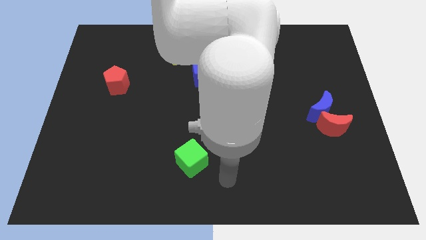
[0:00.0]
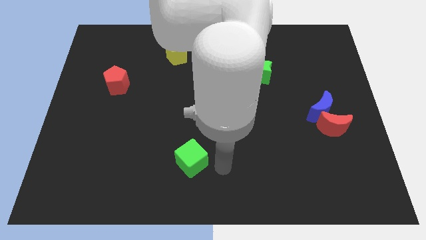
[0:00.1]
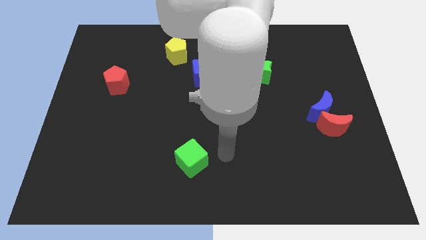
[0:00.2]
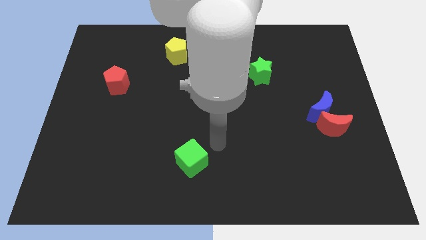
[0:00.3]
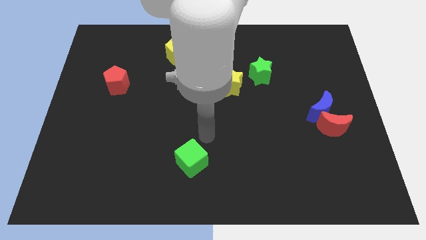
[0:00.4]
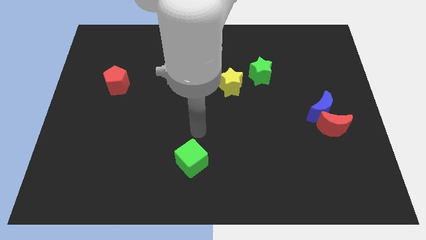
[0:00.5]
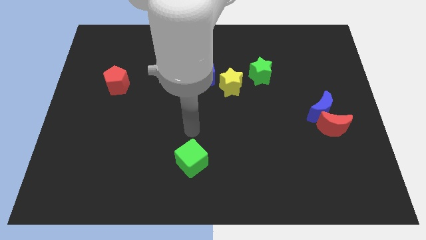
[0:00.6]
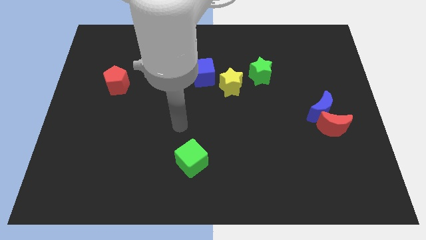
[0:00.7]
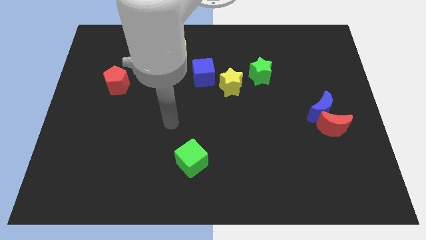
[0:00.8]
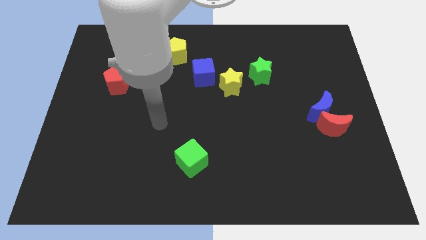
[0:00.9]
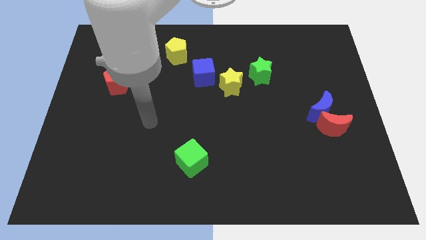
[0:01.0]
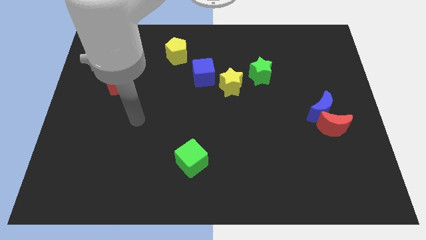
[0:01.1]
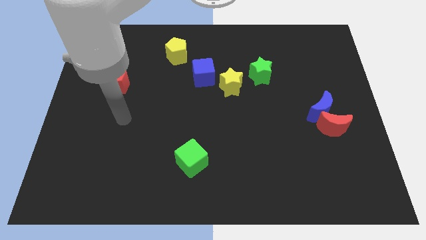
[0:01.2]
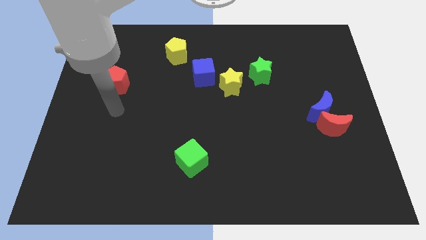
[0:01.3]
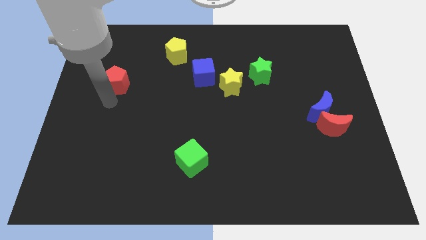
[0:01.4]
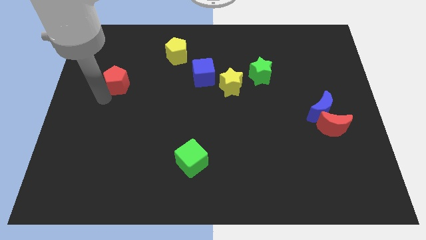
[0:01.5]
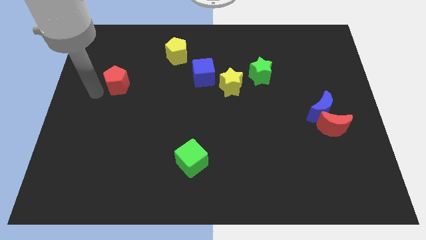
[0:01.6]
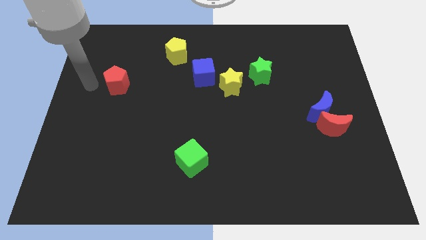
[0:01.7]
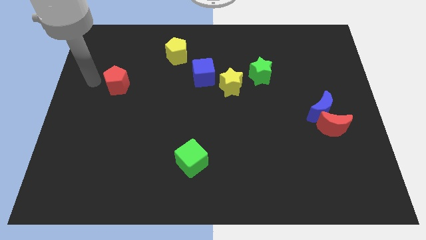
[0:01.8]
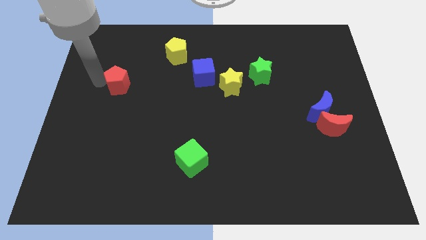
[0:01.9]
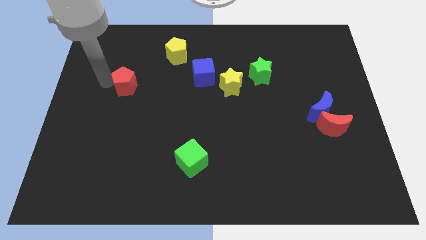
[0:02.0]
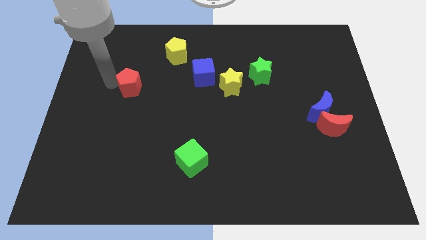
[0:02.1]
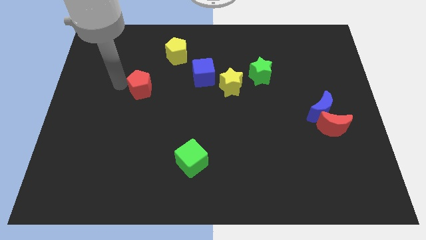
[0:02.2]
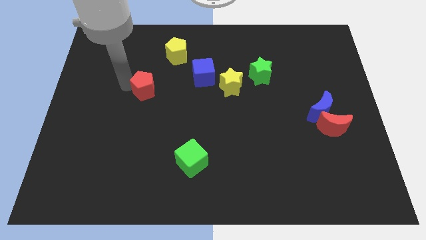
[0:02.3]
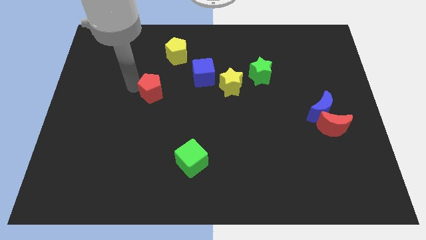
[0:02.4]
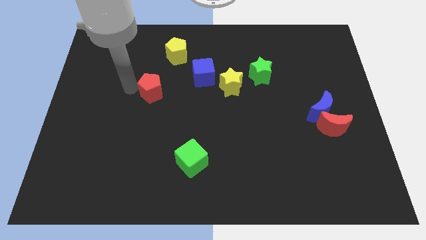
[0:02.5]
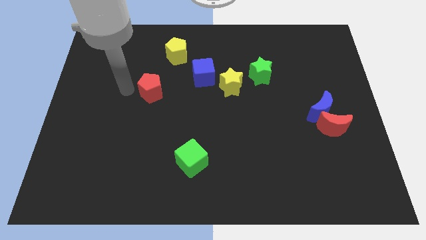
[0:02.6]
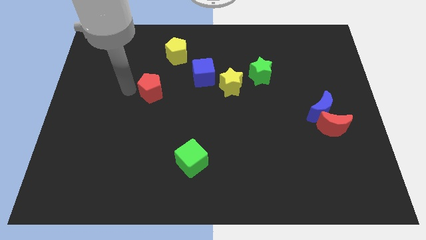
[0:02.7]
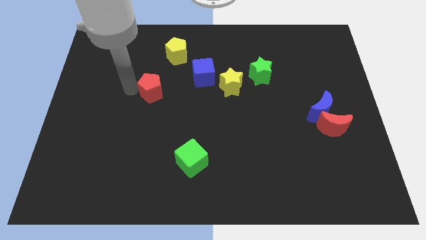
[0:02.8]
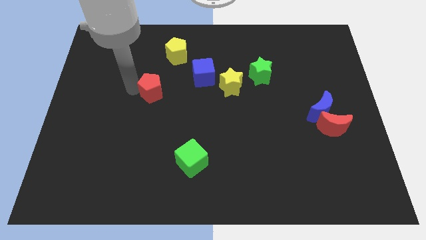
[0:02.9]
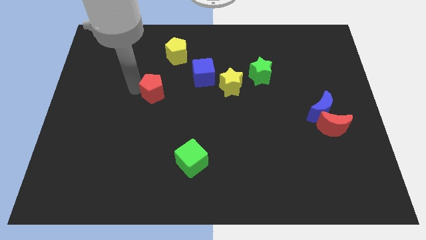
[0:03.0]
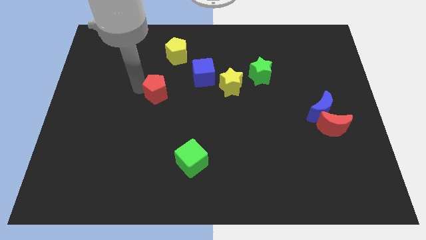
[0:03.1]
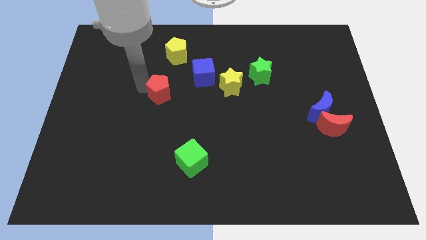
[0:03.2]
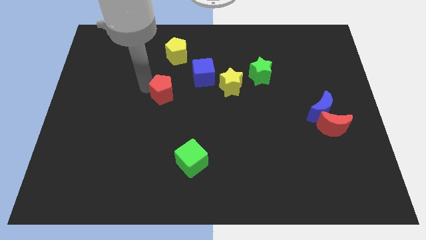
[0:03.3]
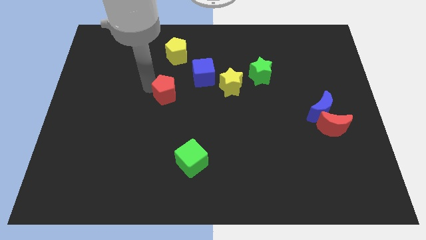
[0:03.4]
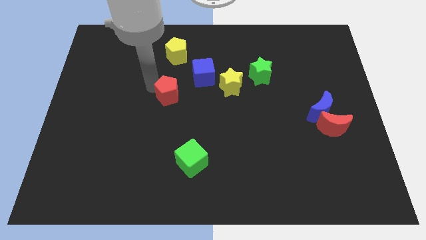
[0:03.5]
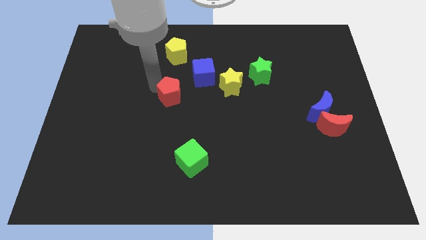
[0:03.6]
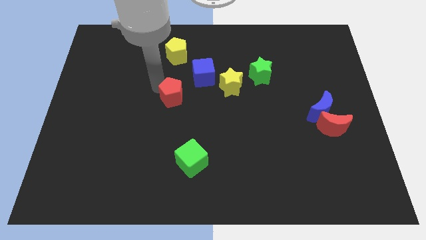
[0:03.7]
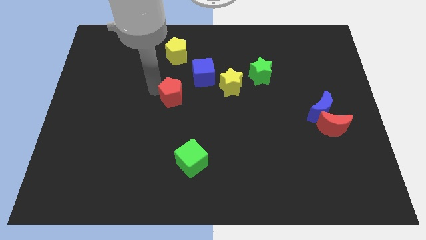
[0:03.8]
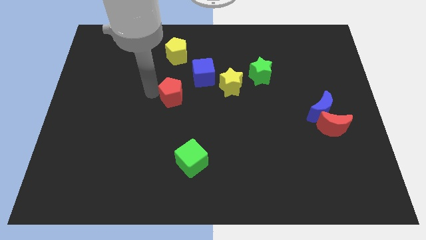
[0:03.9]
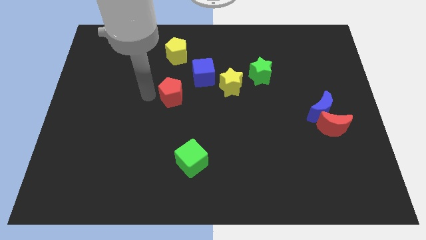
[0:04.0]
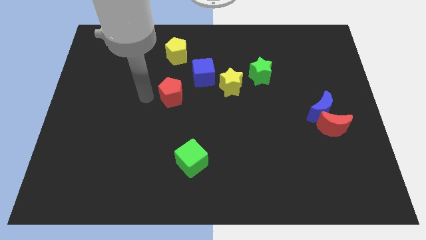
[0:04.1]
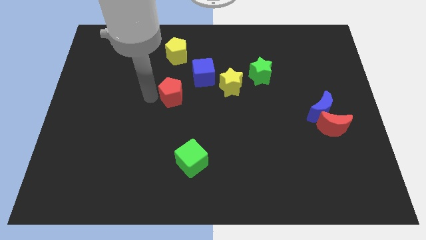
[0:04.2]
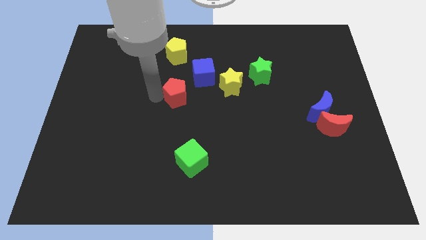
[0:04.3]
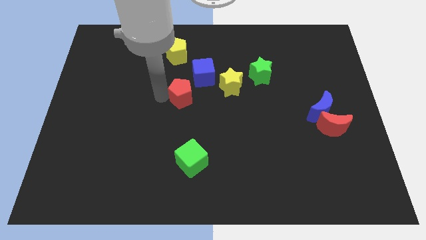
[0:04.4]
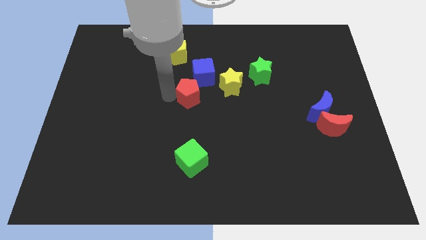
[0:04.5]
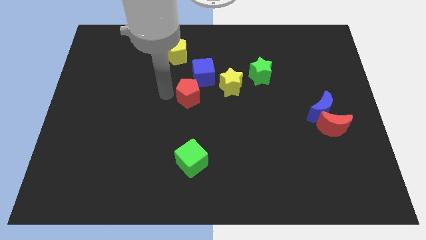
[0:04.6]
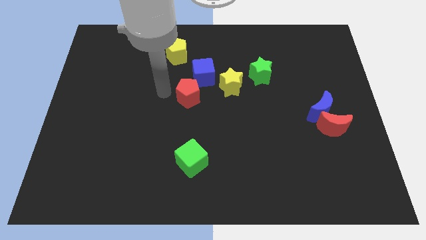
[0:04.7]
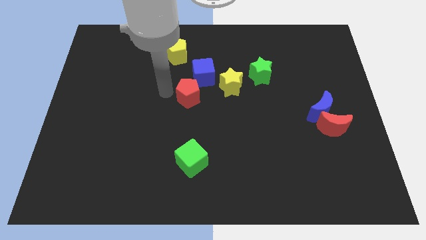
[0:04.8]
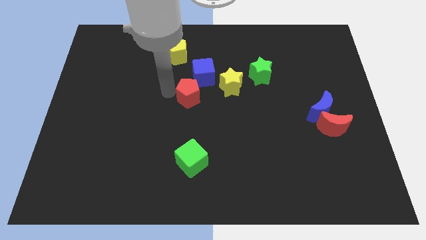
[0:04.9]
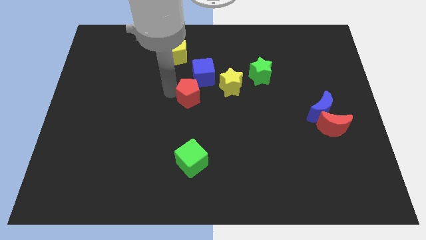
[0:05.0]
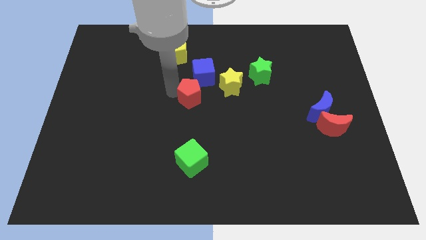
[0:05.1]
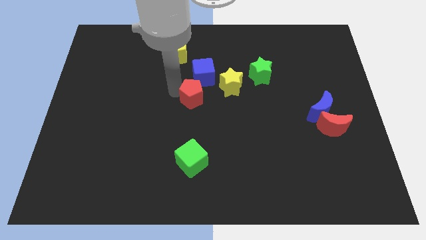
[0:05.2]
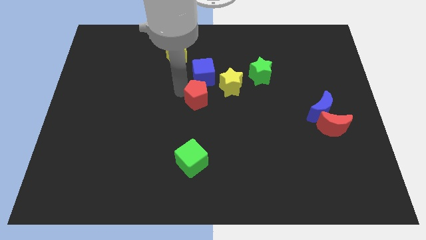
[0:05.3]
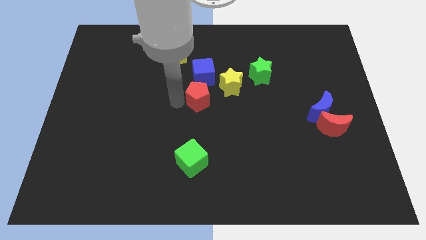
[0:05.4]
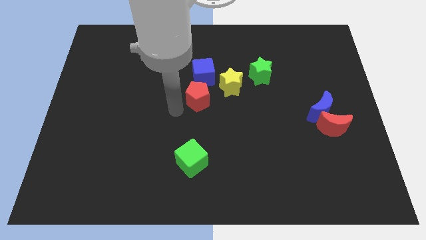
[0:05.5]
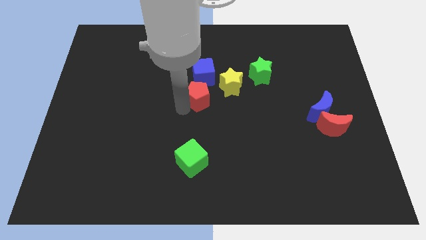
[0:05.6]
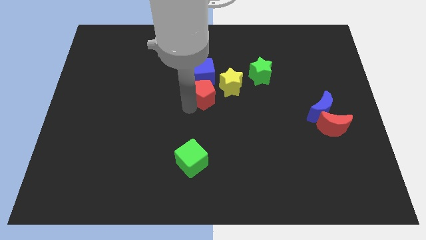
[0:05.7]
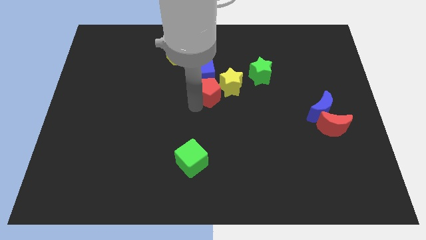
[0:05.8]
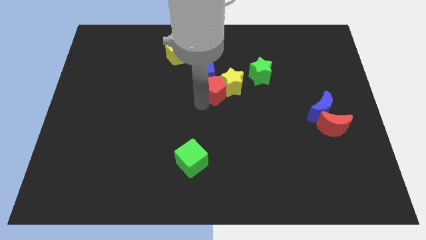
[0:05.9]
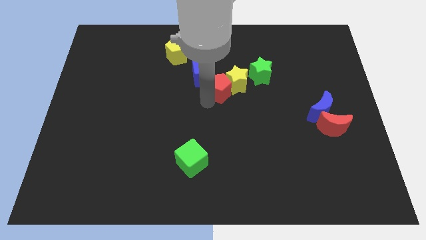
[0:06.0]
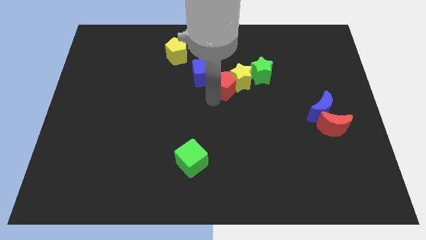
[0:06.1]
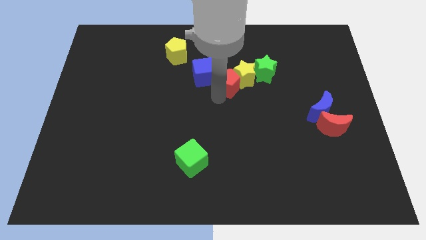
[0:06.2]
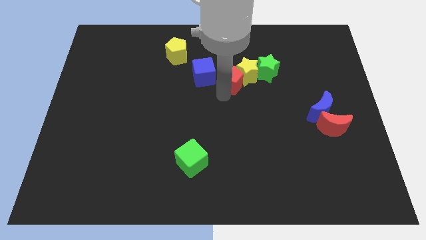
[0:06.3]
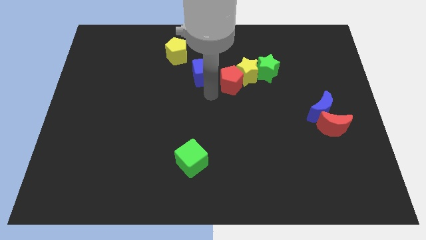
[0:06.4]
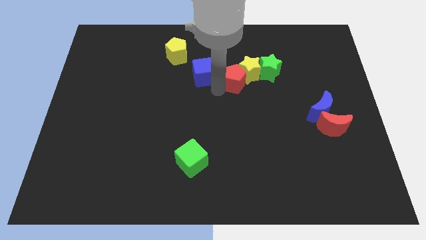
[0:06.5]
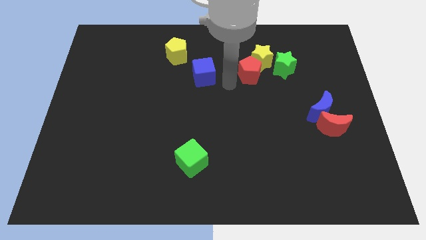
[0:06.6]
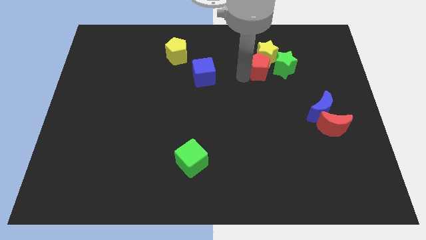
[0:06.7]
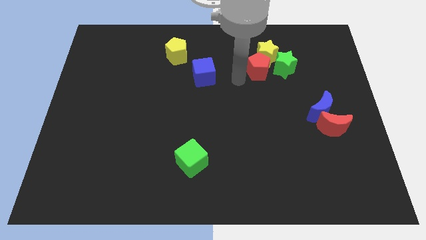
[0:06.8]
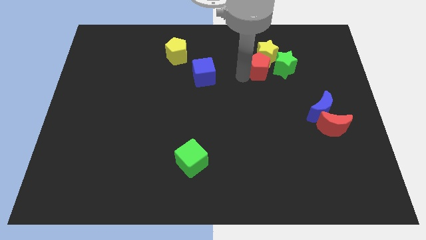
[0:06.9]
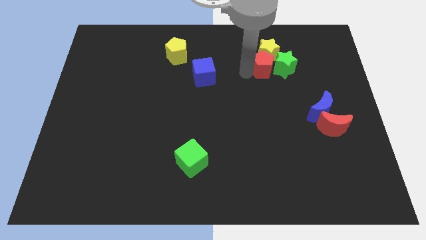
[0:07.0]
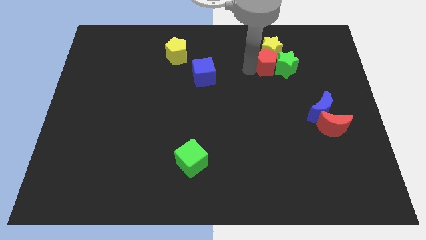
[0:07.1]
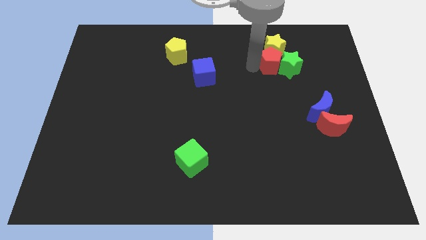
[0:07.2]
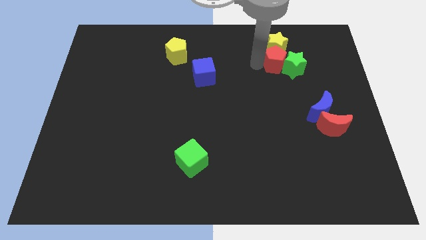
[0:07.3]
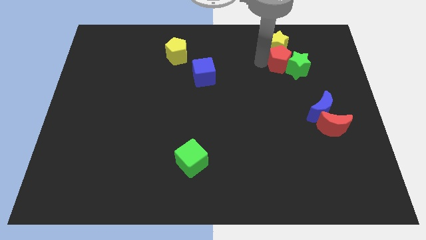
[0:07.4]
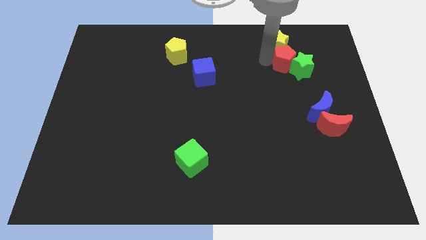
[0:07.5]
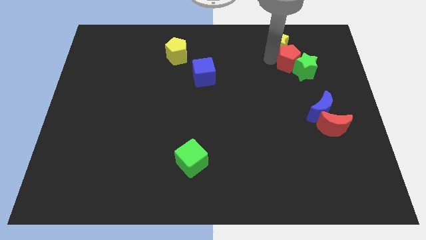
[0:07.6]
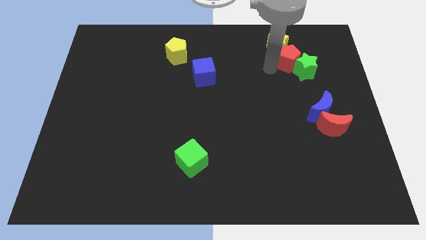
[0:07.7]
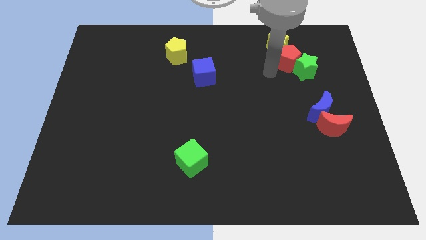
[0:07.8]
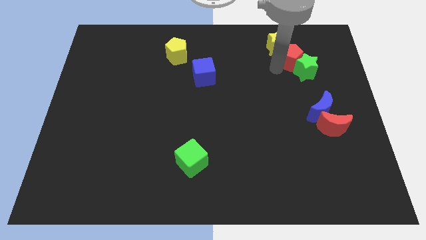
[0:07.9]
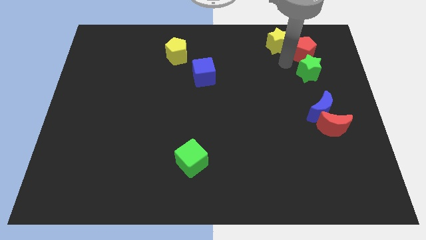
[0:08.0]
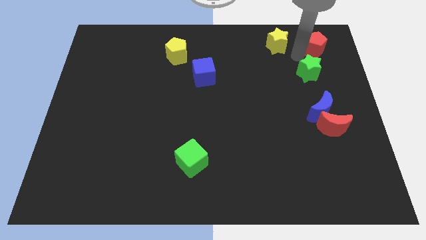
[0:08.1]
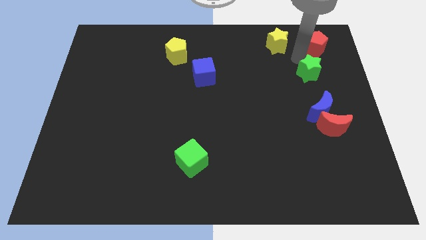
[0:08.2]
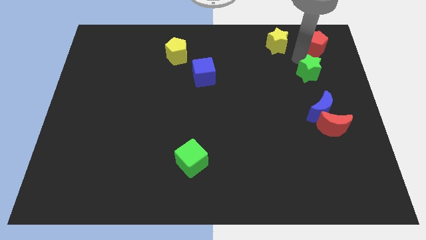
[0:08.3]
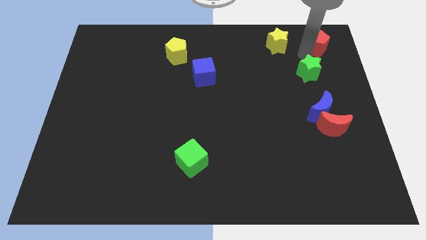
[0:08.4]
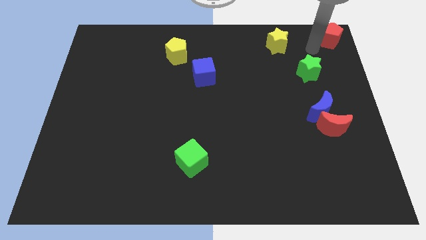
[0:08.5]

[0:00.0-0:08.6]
slide the red pentagon to the top right
